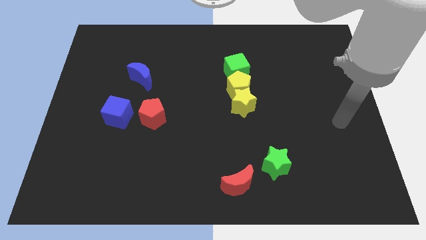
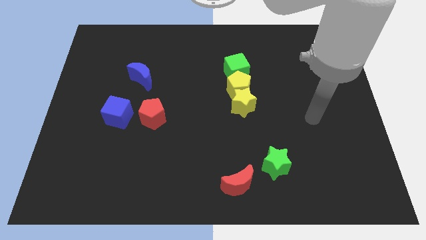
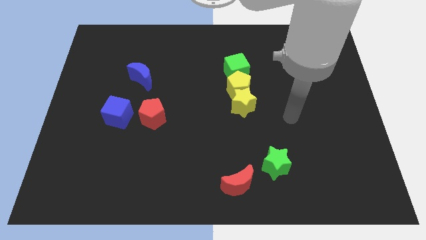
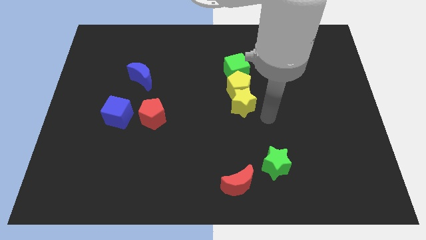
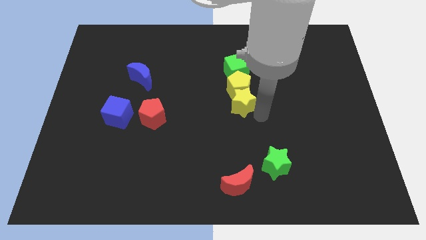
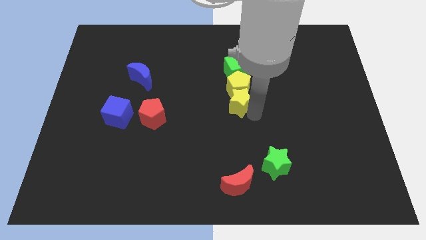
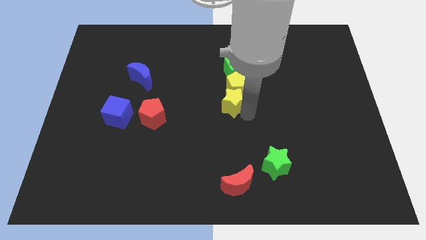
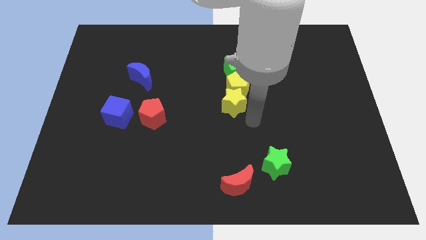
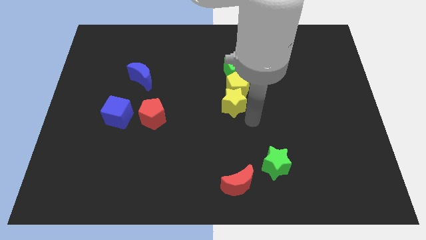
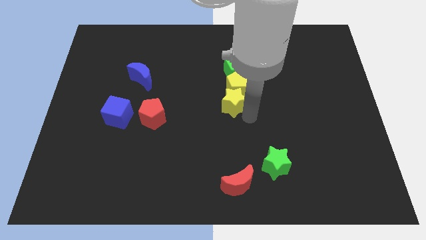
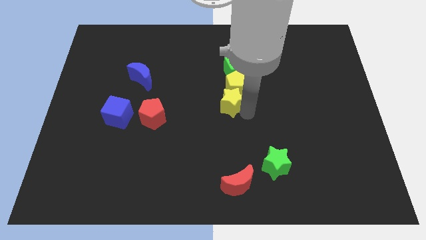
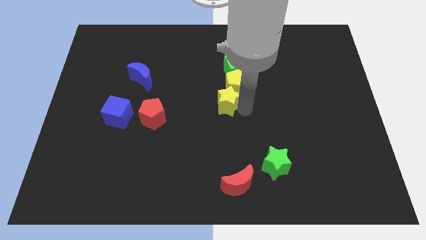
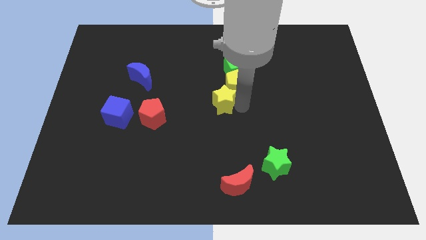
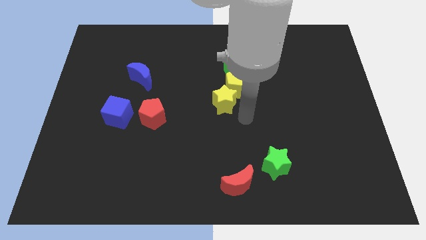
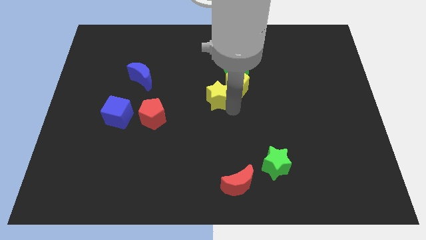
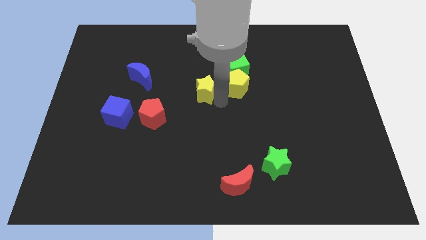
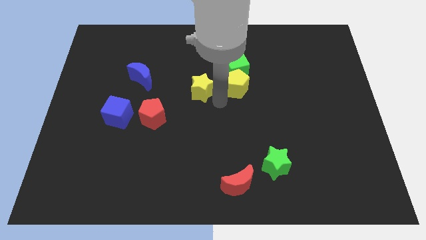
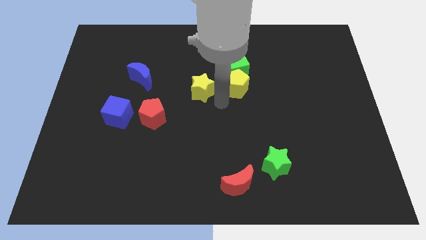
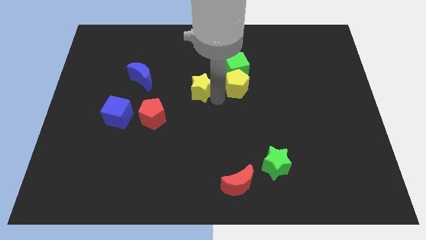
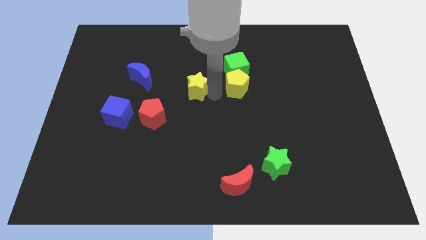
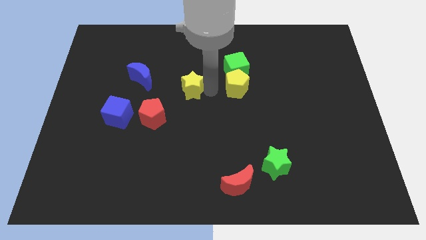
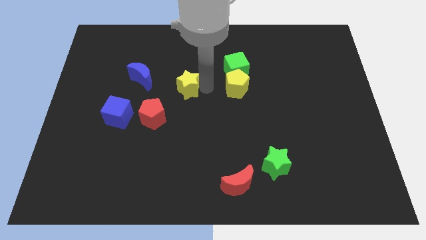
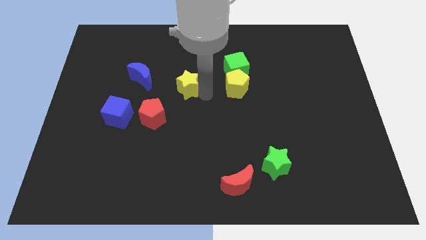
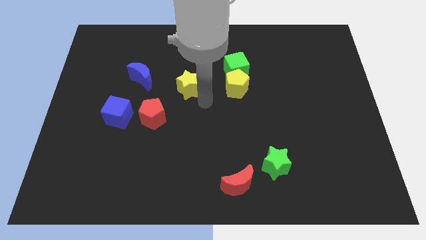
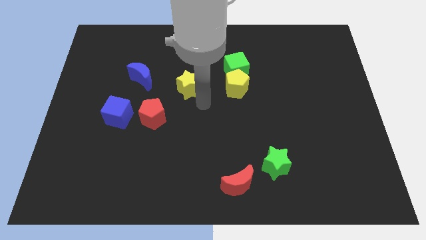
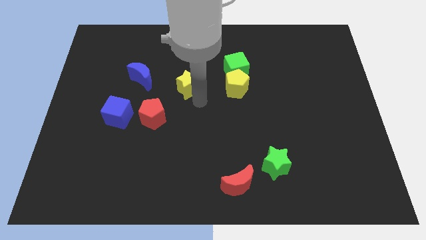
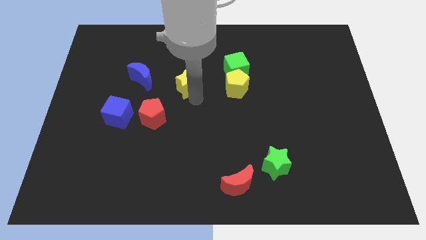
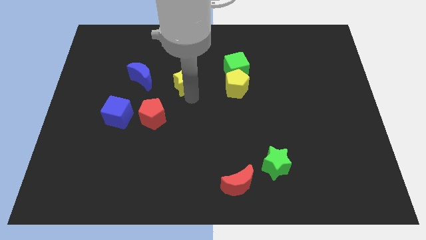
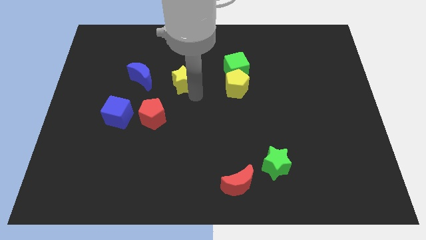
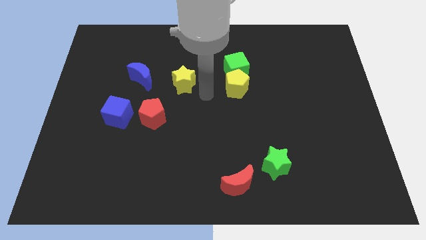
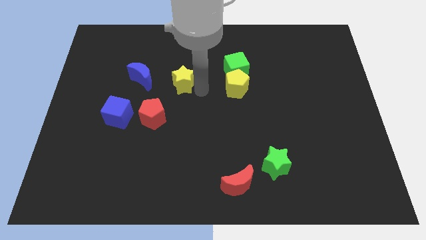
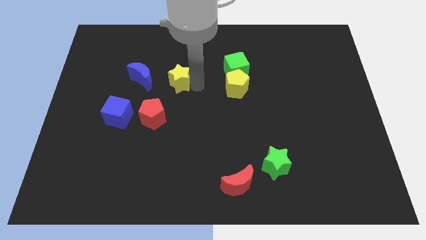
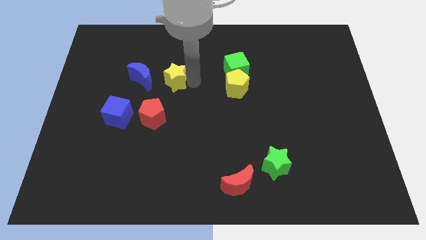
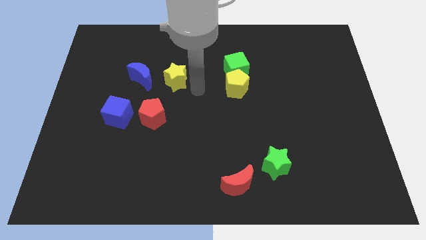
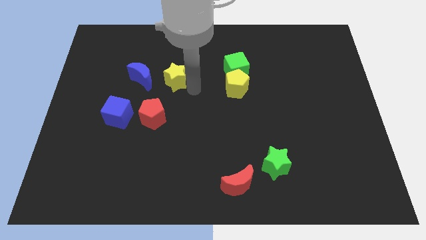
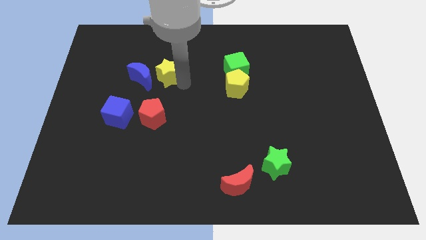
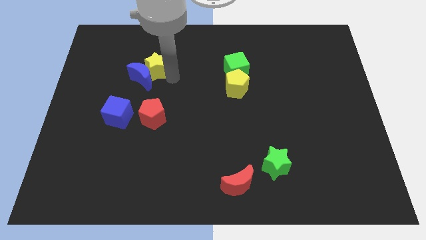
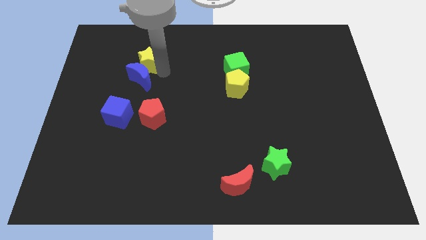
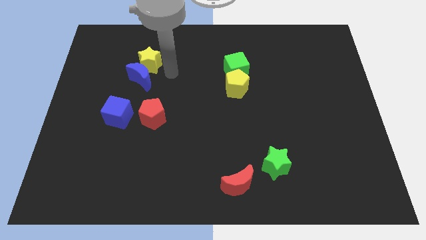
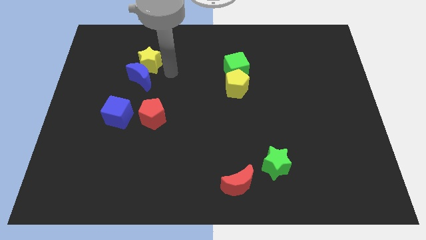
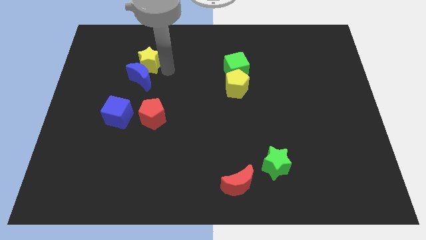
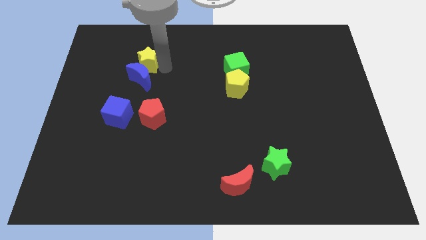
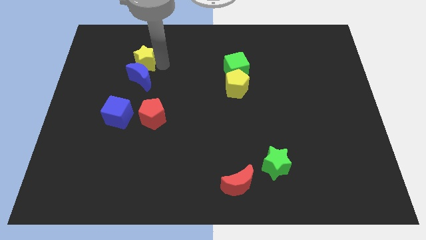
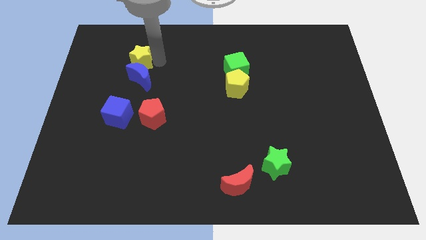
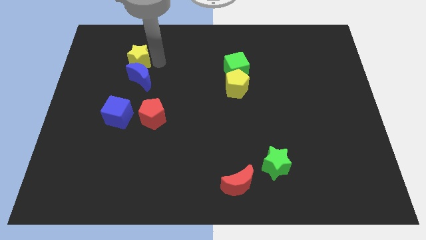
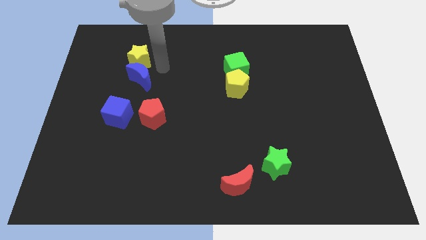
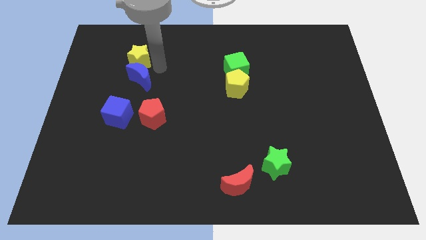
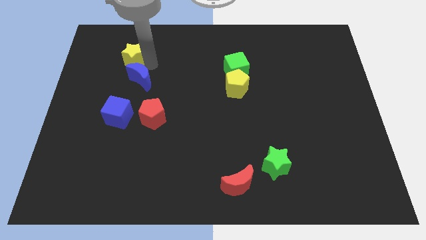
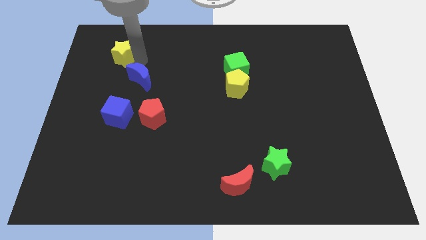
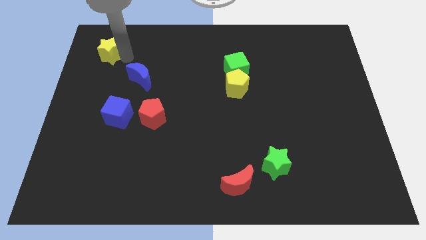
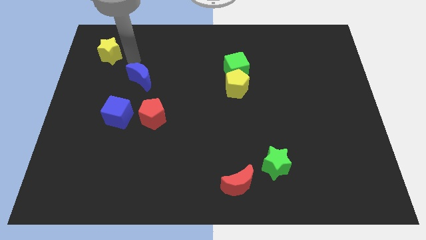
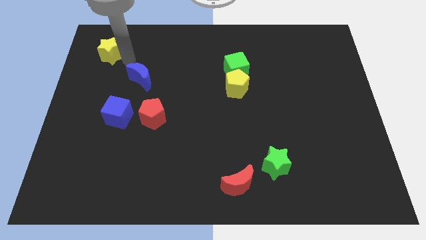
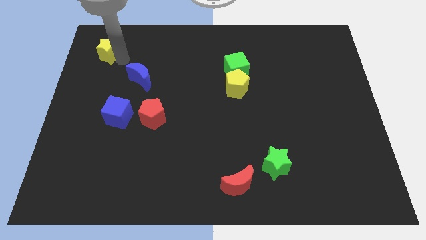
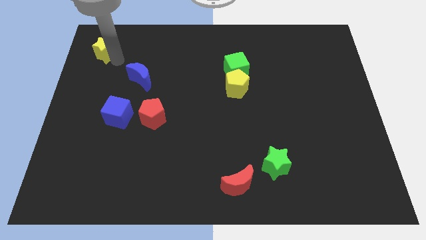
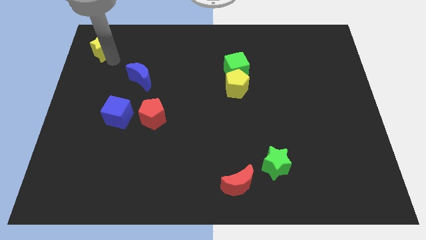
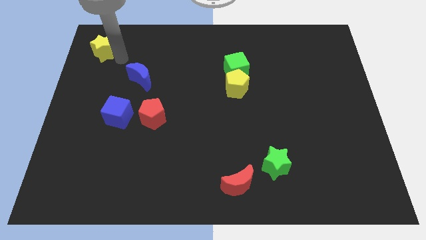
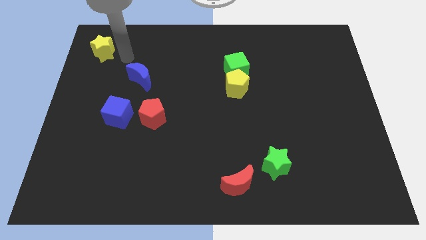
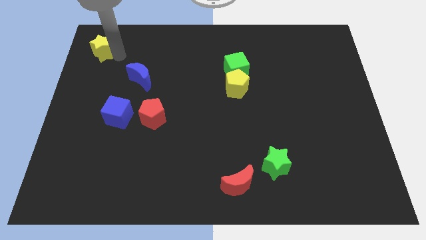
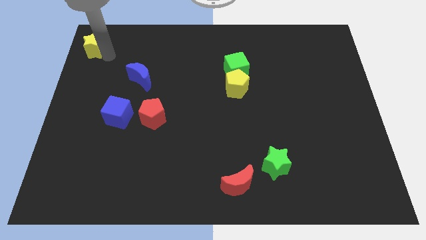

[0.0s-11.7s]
put the yellow star to the upper left corner
